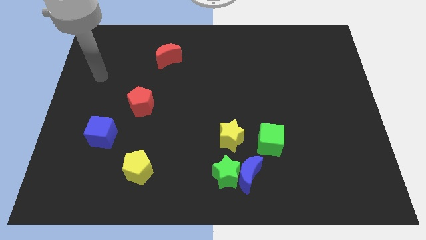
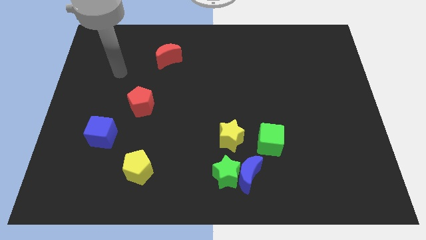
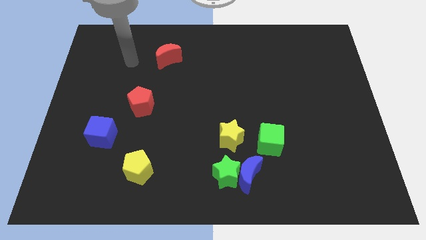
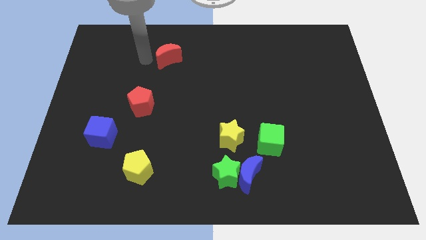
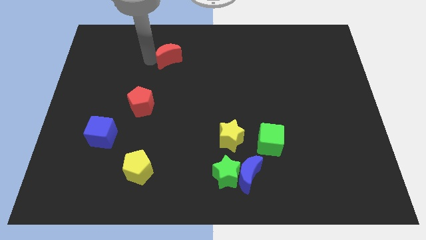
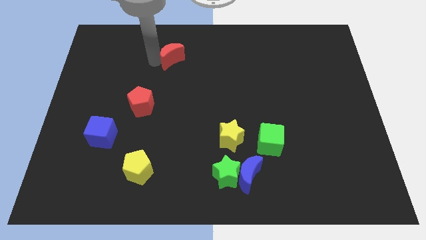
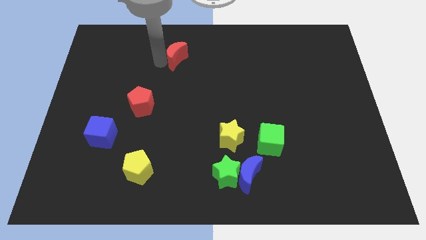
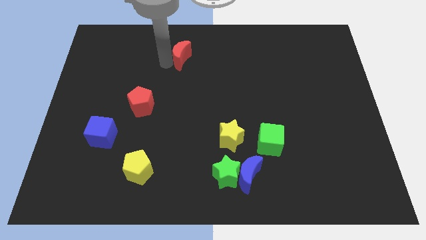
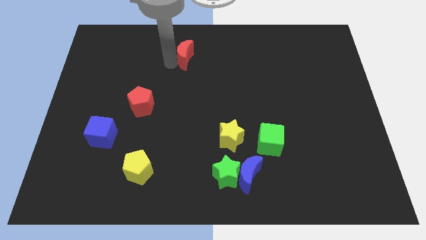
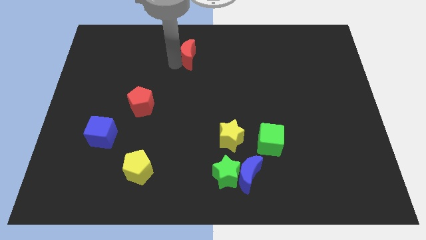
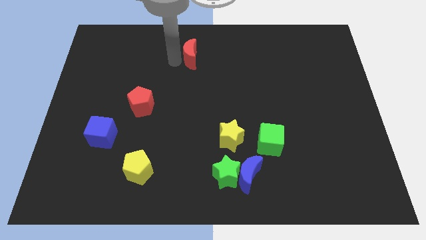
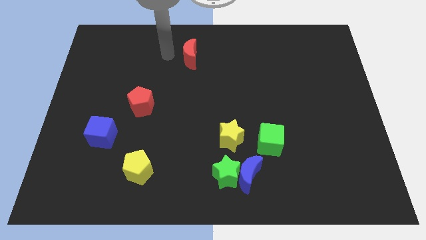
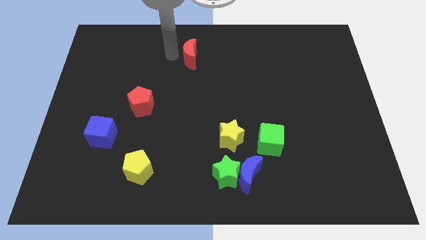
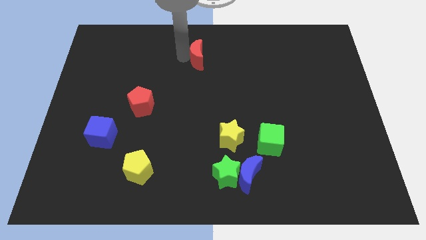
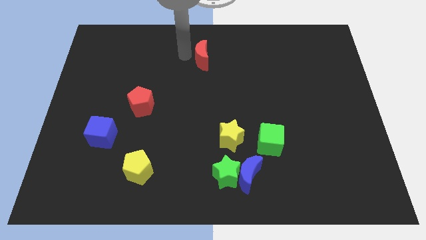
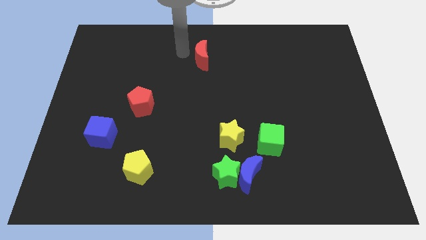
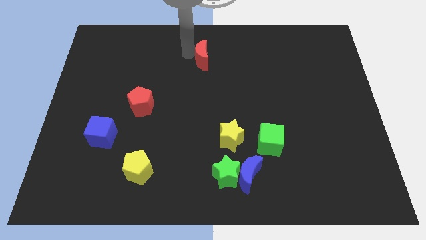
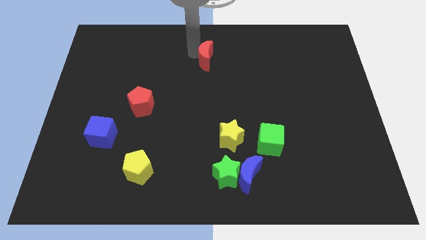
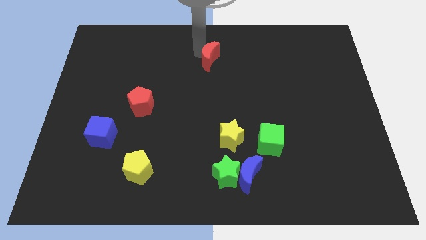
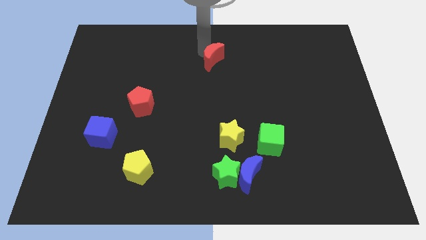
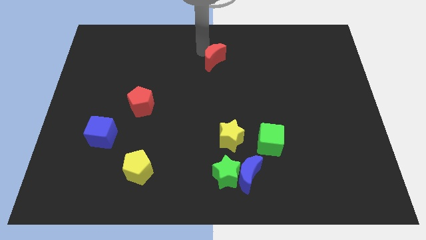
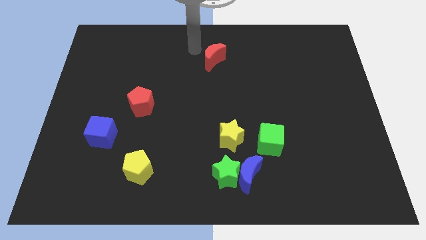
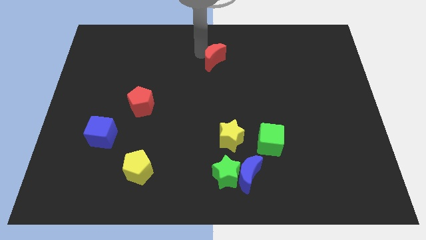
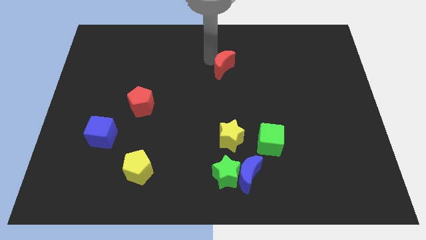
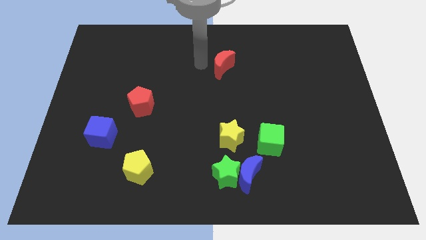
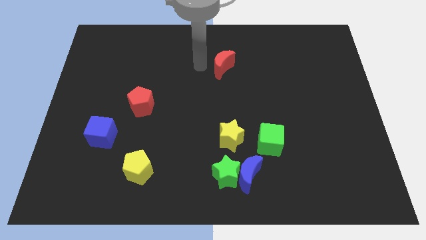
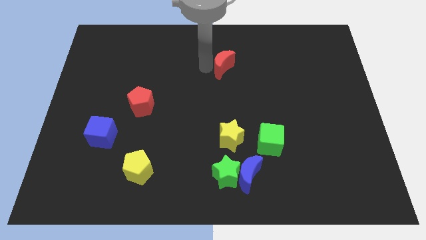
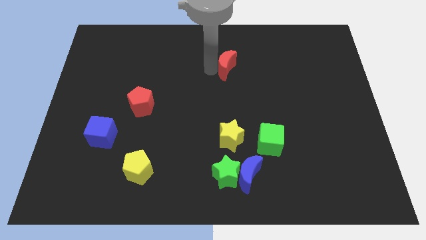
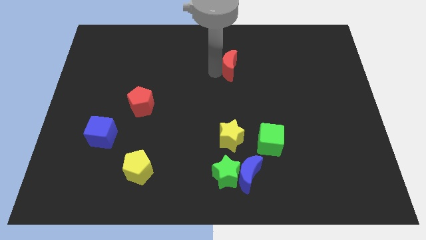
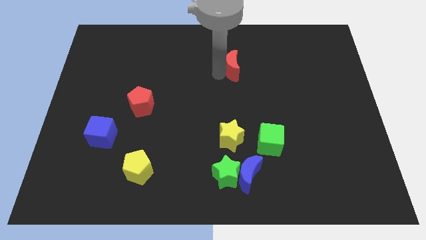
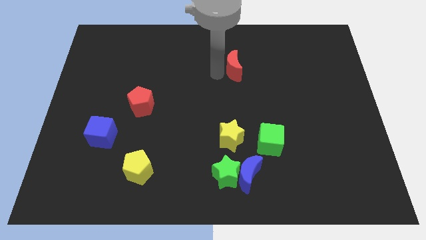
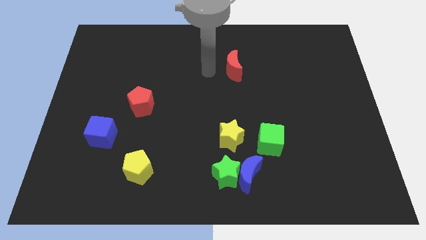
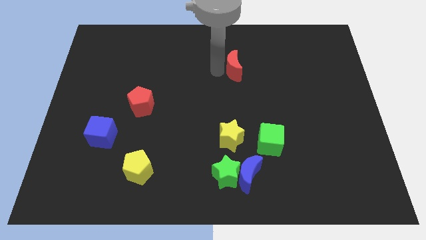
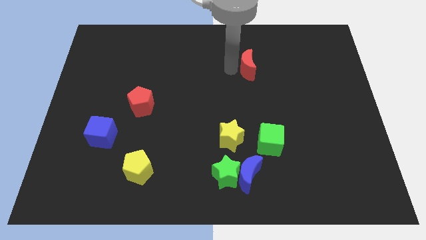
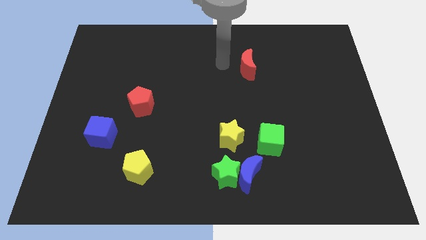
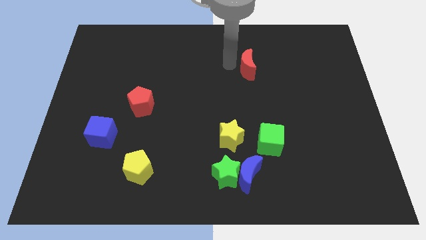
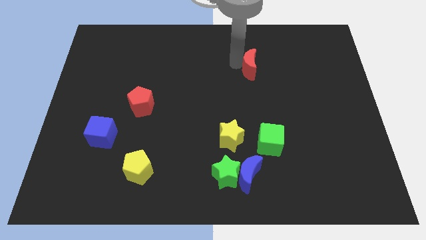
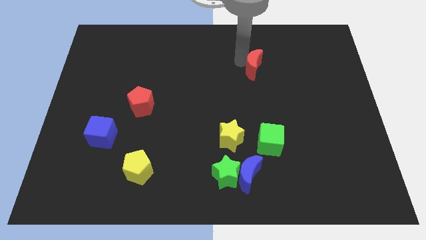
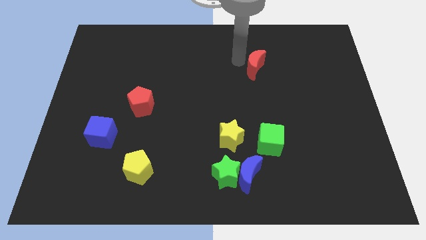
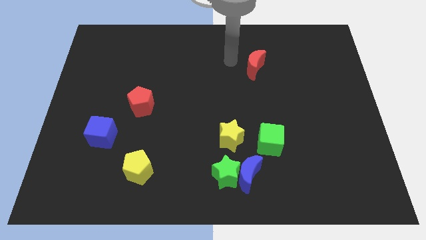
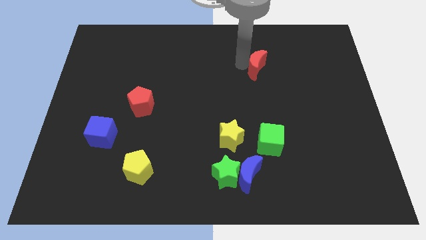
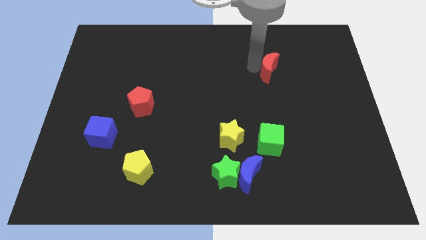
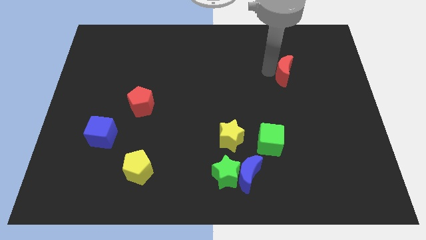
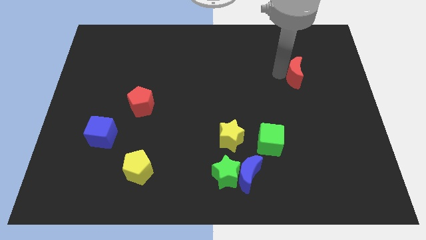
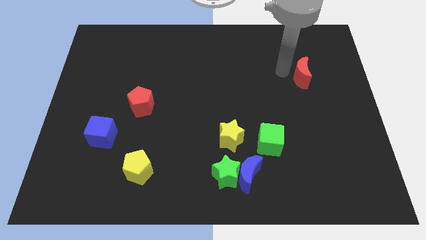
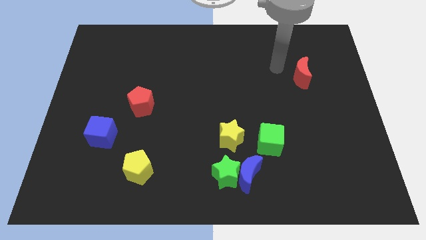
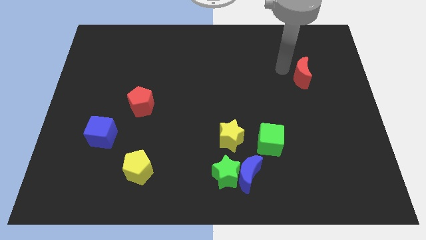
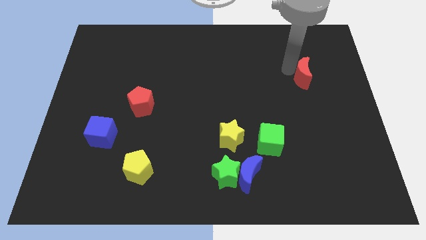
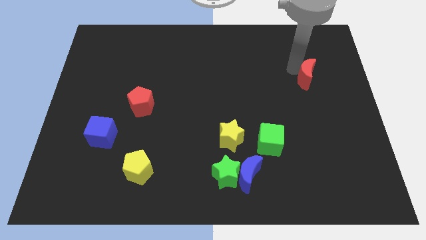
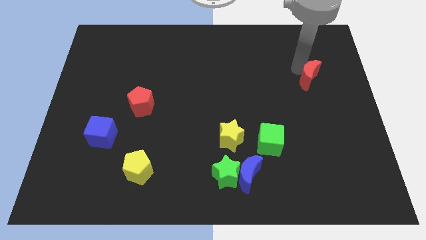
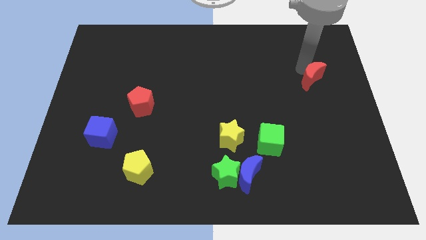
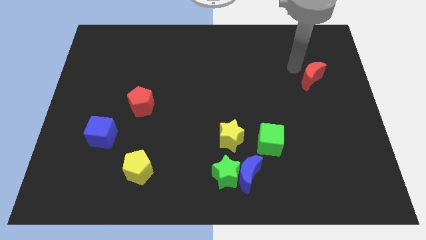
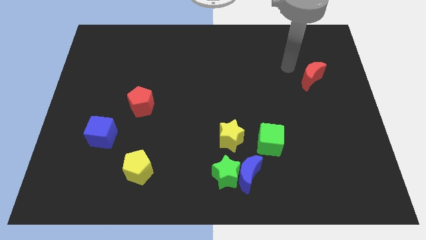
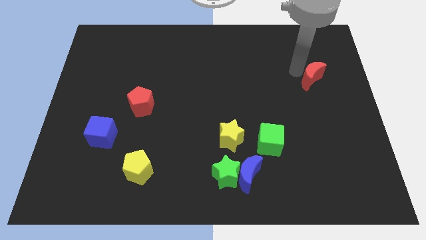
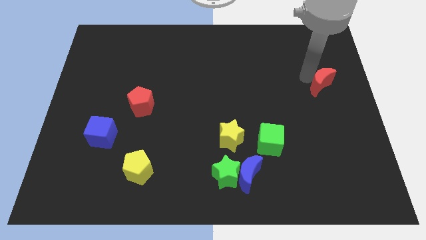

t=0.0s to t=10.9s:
move the red moon to the center right
